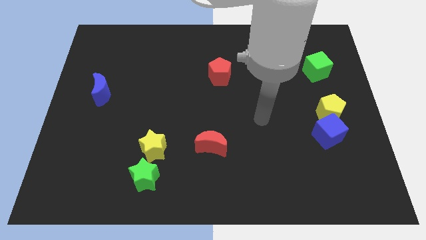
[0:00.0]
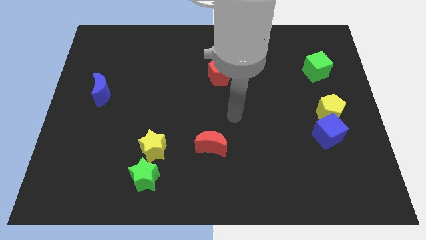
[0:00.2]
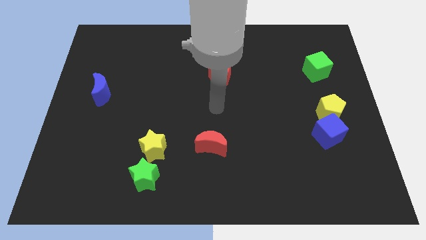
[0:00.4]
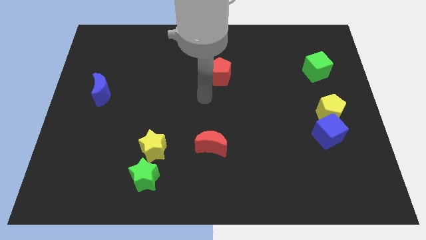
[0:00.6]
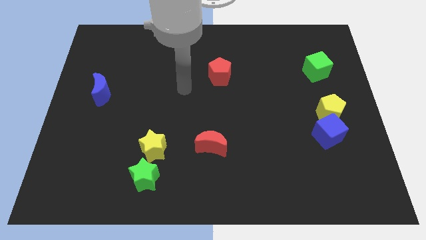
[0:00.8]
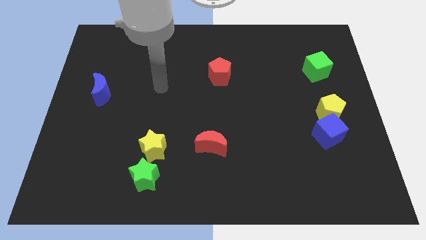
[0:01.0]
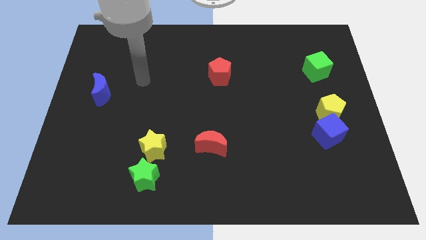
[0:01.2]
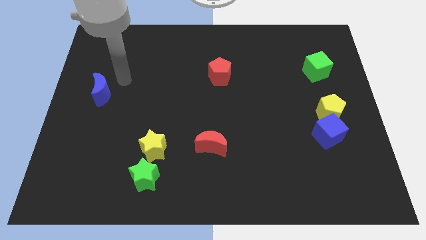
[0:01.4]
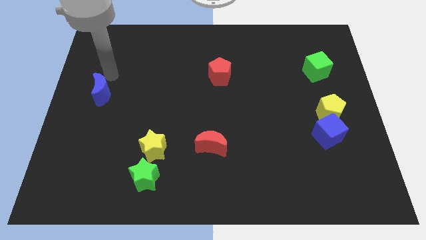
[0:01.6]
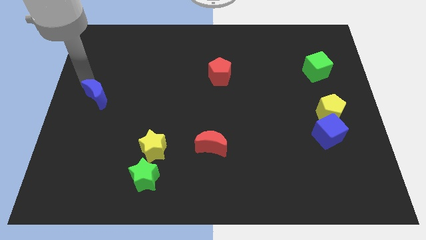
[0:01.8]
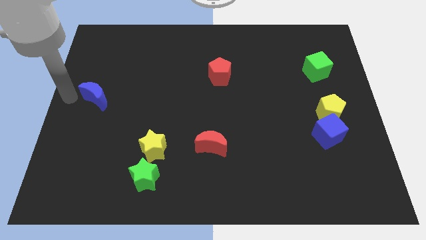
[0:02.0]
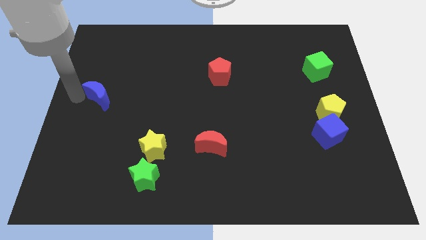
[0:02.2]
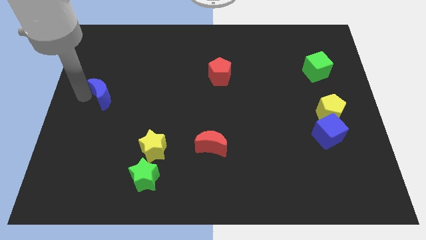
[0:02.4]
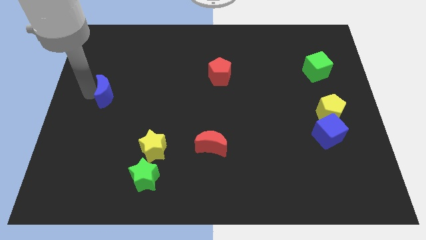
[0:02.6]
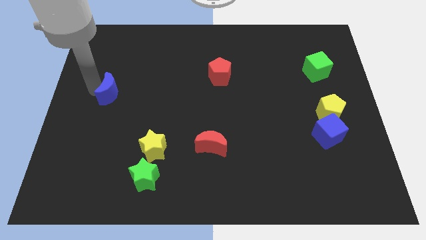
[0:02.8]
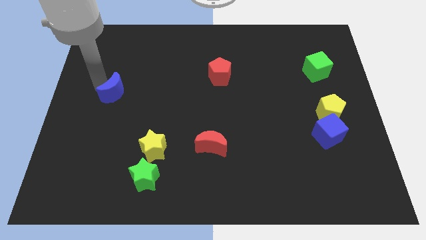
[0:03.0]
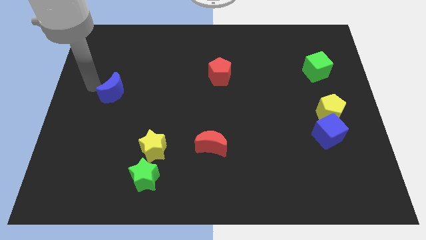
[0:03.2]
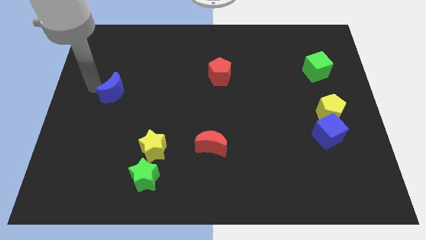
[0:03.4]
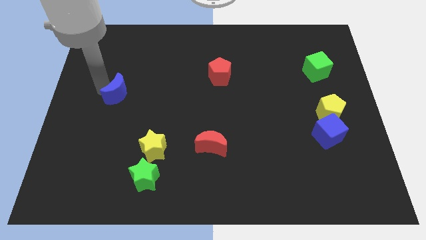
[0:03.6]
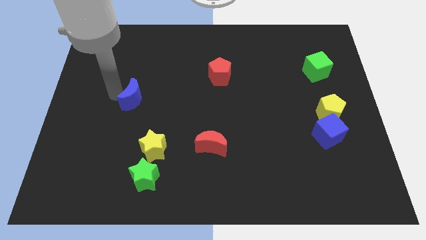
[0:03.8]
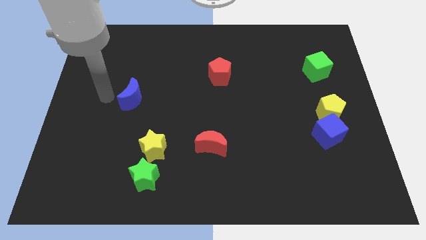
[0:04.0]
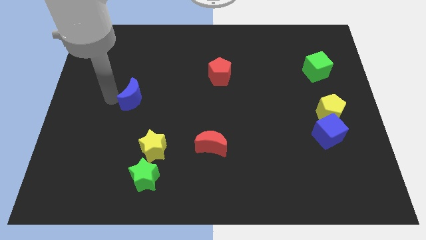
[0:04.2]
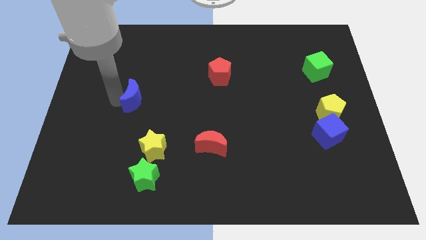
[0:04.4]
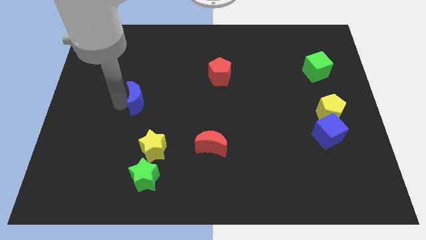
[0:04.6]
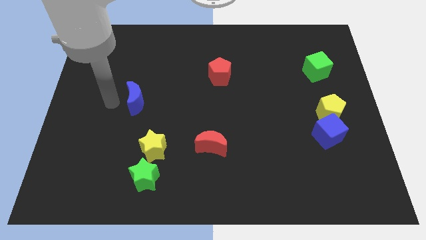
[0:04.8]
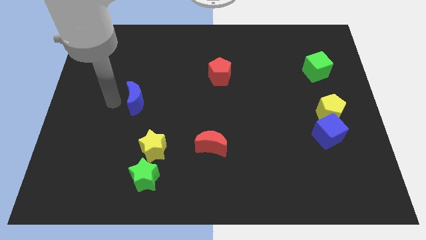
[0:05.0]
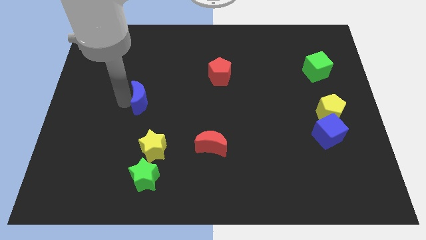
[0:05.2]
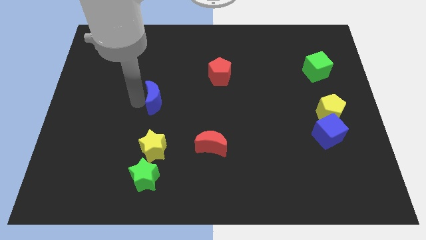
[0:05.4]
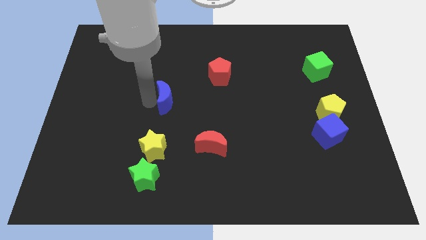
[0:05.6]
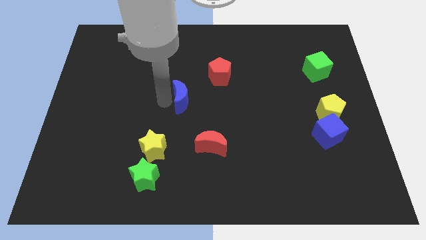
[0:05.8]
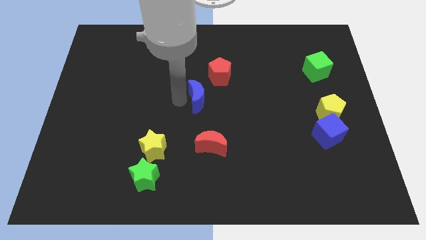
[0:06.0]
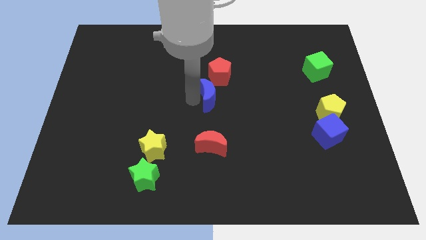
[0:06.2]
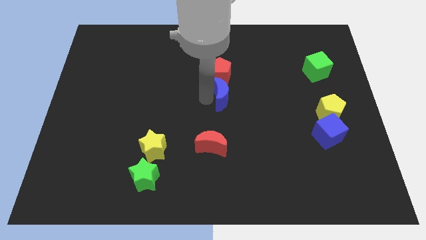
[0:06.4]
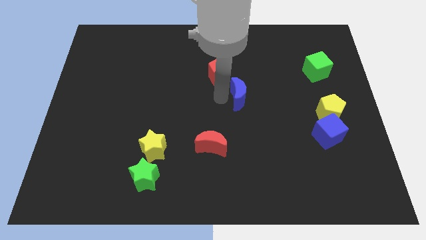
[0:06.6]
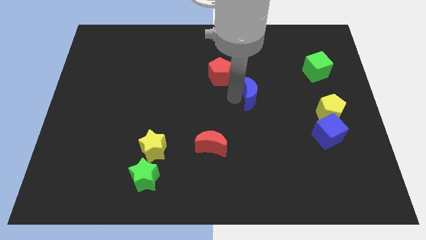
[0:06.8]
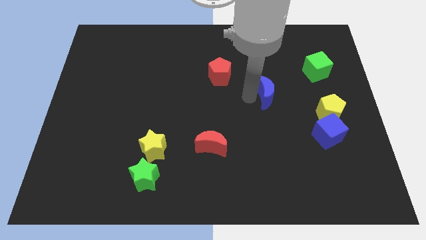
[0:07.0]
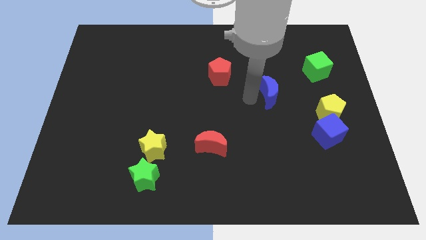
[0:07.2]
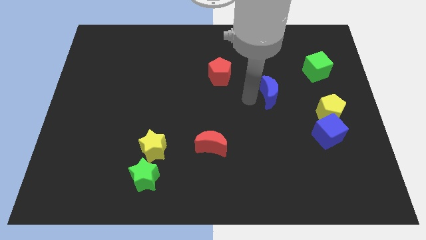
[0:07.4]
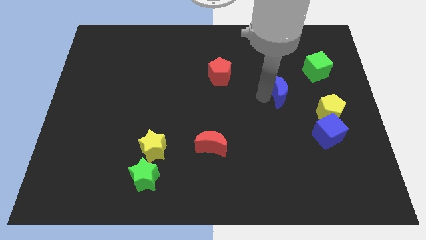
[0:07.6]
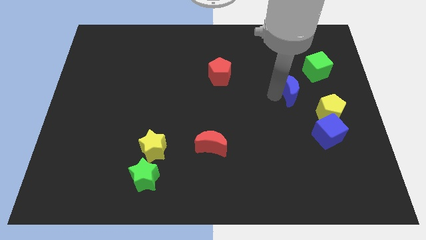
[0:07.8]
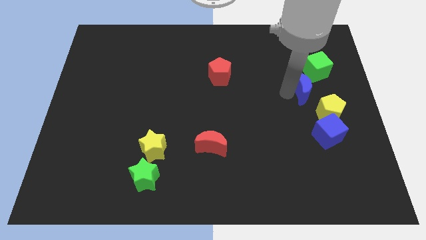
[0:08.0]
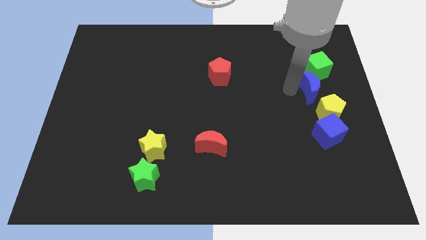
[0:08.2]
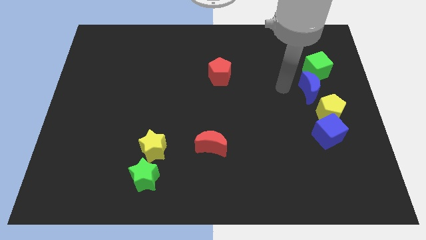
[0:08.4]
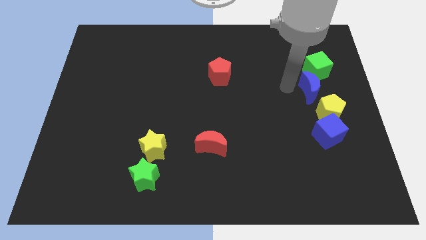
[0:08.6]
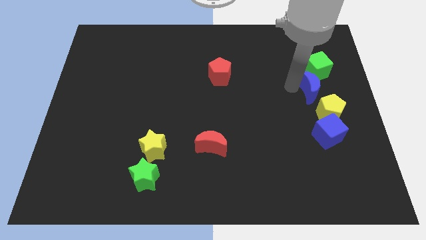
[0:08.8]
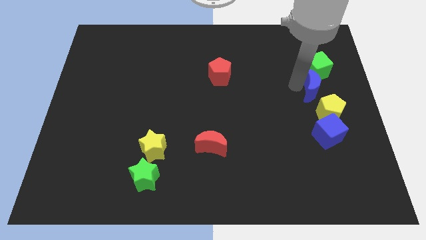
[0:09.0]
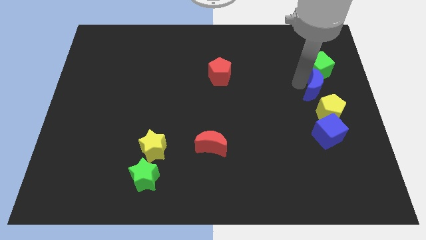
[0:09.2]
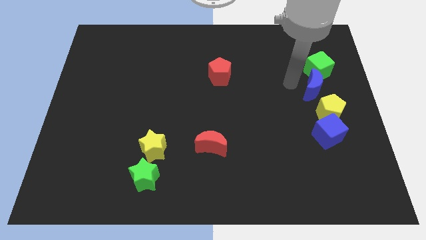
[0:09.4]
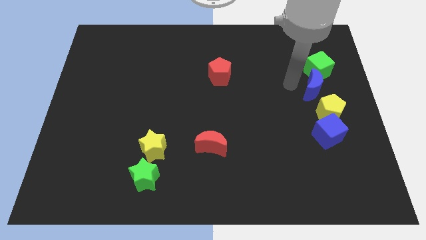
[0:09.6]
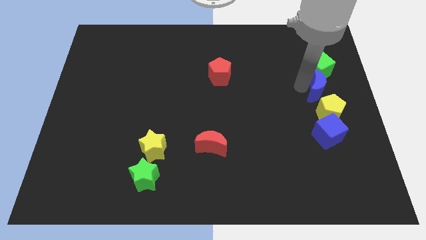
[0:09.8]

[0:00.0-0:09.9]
push the blue moon to the right side

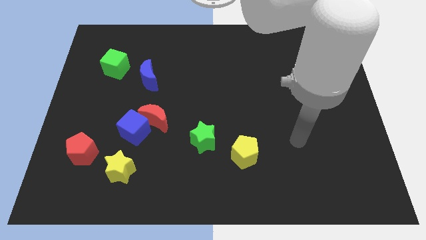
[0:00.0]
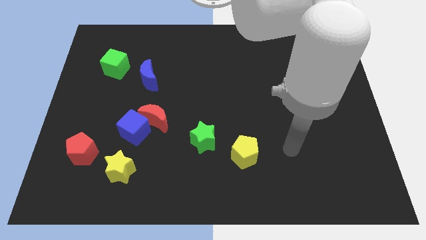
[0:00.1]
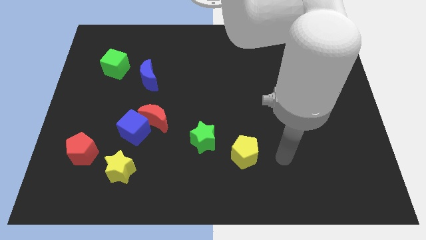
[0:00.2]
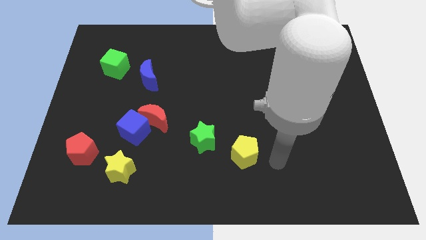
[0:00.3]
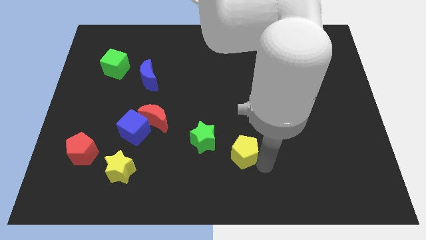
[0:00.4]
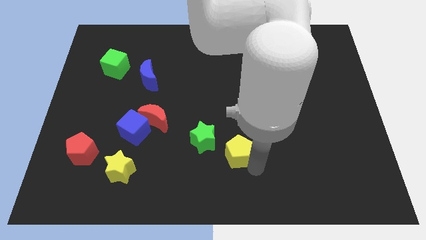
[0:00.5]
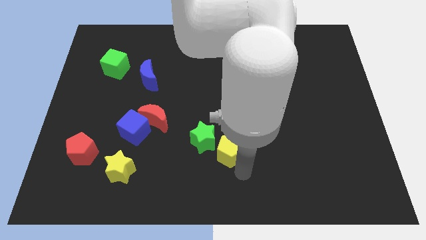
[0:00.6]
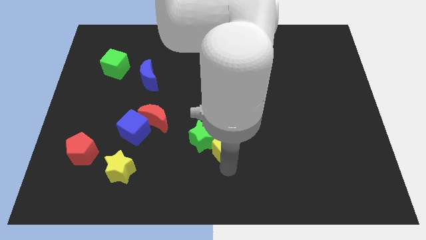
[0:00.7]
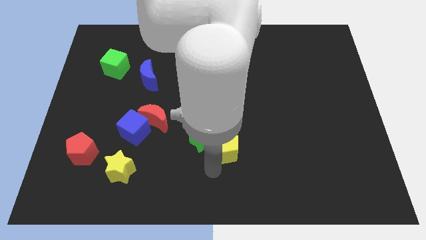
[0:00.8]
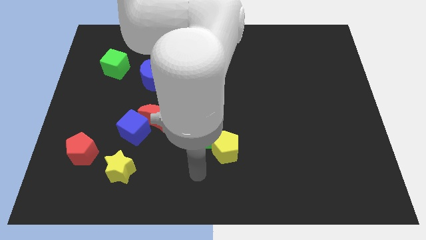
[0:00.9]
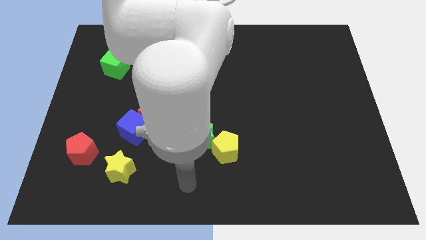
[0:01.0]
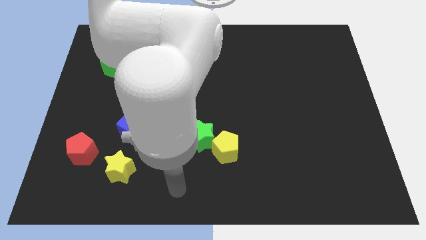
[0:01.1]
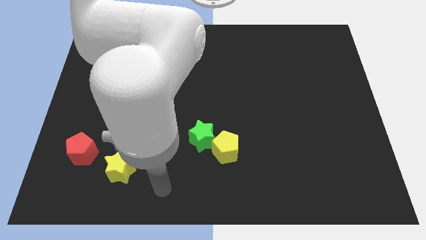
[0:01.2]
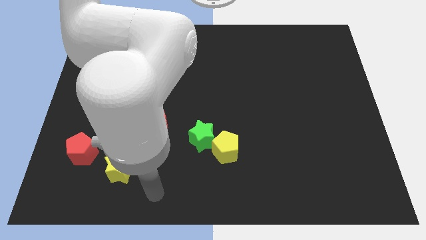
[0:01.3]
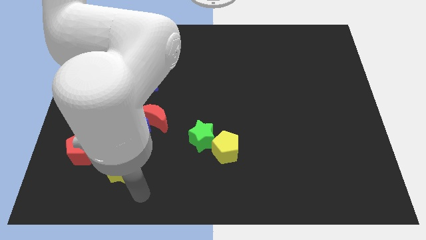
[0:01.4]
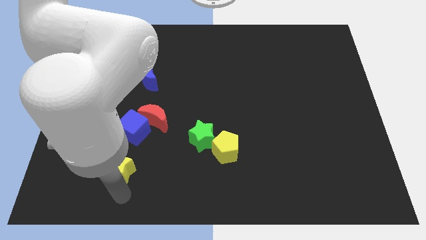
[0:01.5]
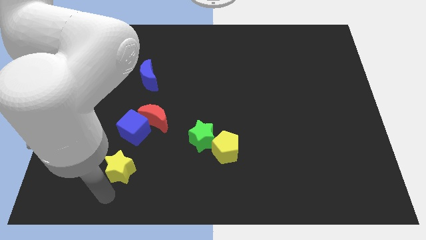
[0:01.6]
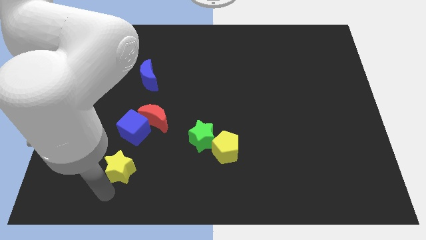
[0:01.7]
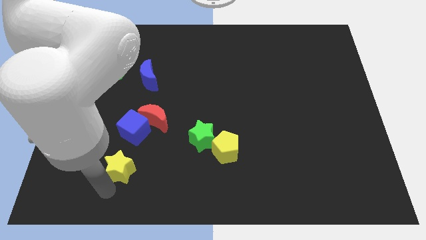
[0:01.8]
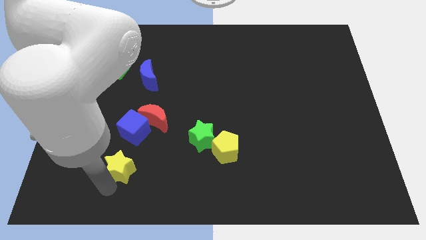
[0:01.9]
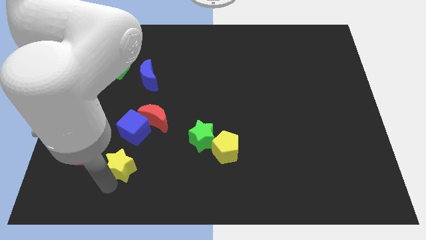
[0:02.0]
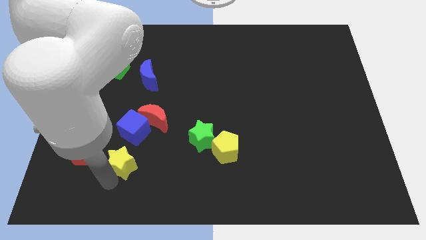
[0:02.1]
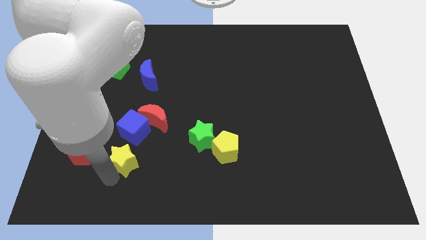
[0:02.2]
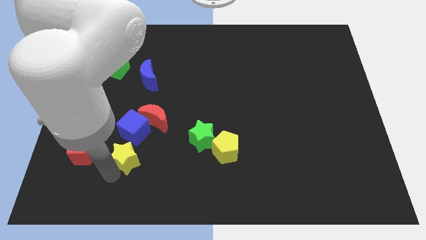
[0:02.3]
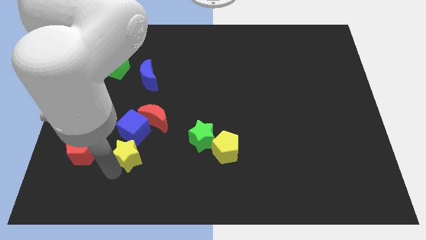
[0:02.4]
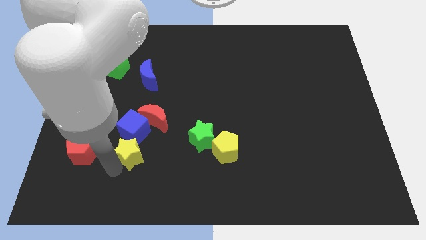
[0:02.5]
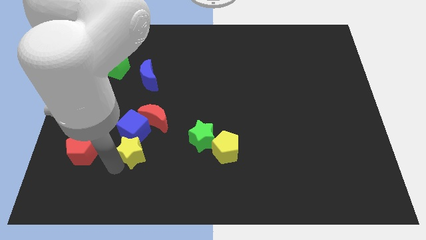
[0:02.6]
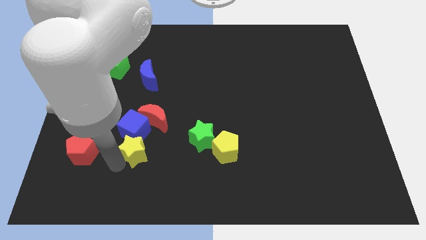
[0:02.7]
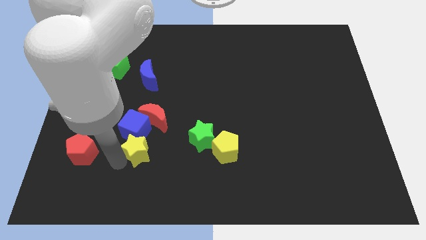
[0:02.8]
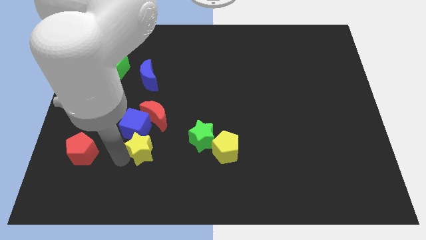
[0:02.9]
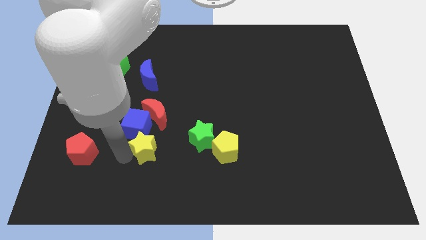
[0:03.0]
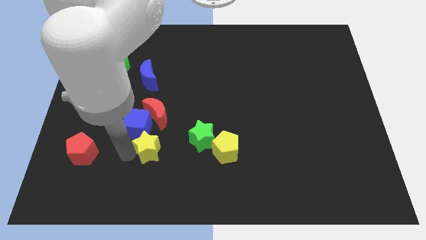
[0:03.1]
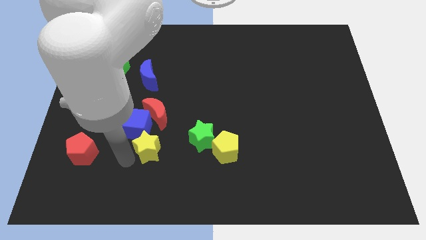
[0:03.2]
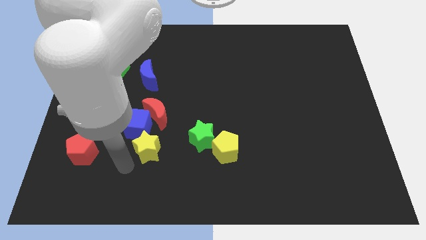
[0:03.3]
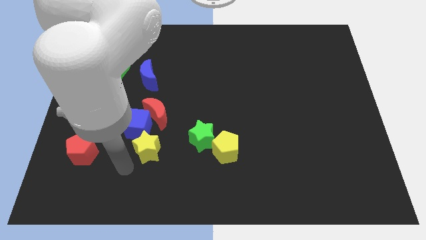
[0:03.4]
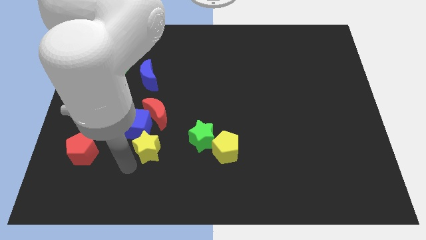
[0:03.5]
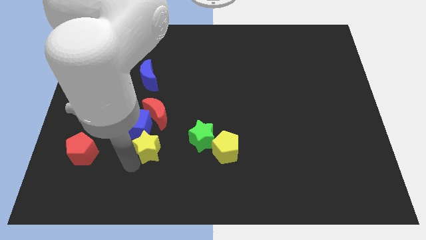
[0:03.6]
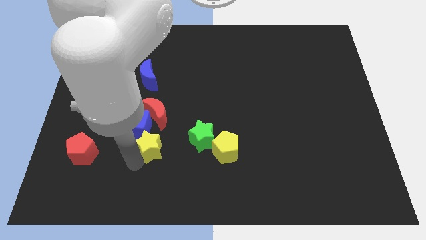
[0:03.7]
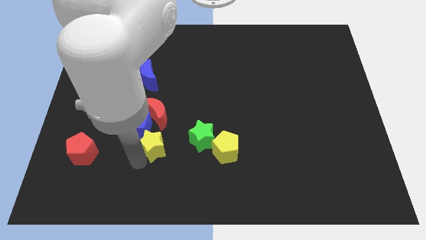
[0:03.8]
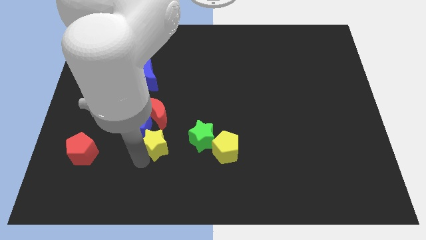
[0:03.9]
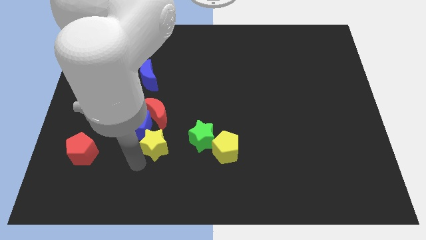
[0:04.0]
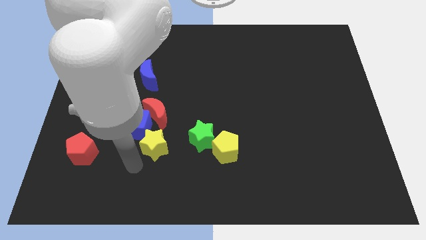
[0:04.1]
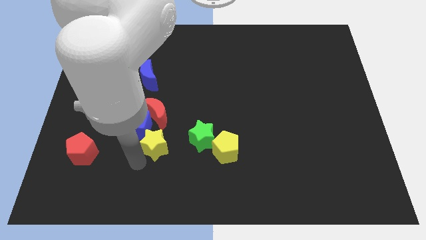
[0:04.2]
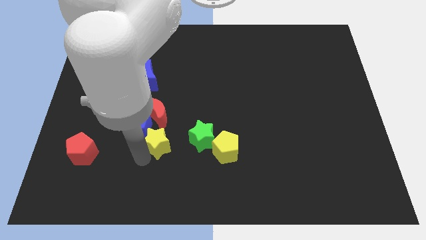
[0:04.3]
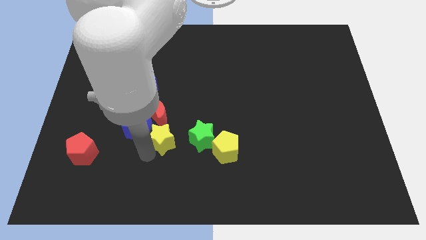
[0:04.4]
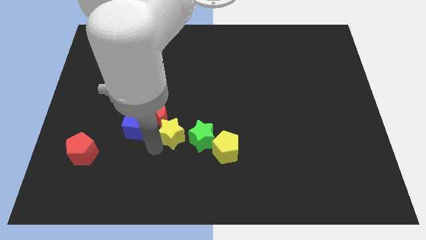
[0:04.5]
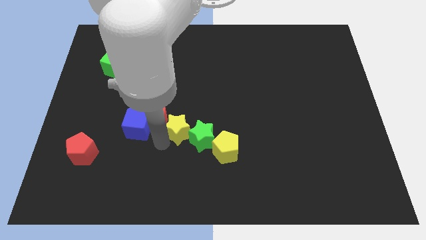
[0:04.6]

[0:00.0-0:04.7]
put the yellow star to the middle of the board
